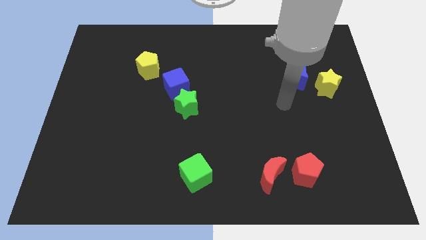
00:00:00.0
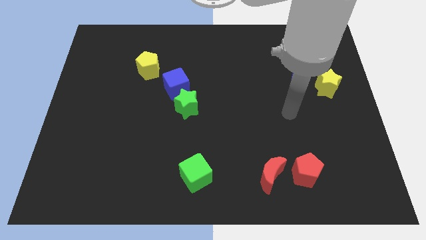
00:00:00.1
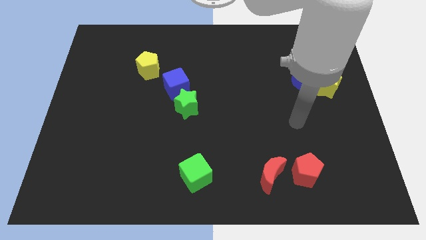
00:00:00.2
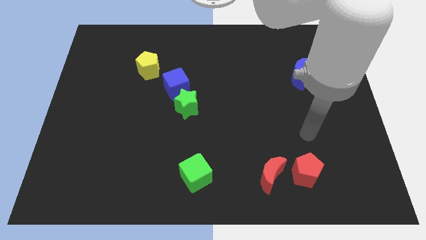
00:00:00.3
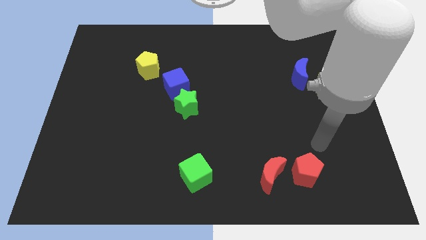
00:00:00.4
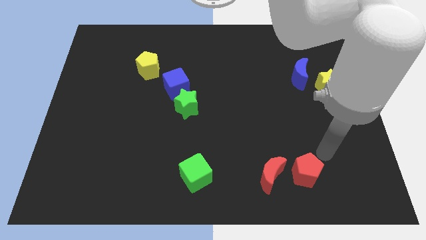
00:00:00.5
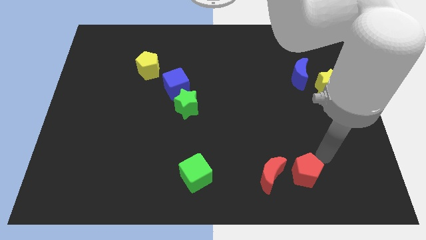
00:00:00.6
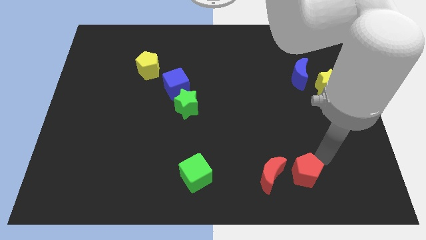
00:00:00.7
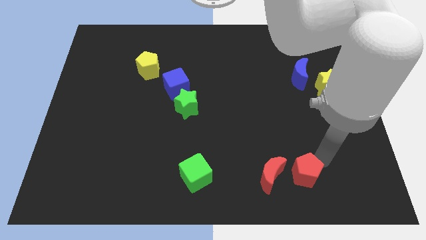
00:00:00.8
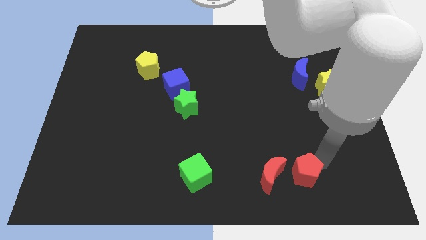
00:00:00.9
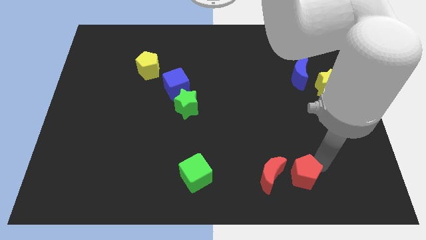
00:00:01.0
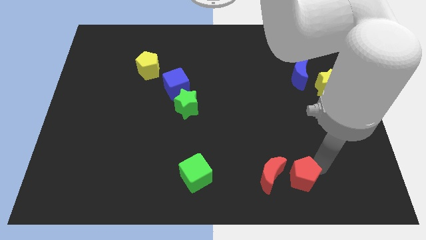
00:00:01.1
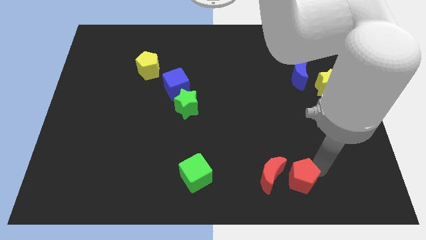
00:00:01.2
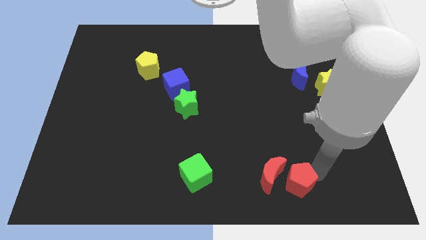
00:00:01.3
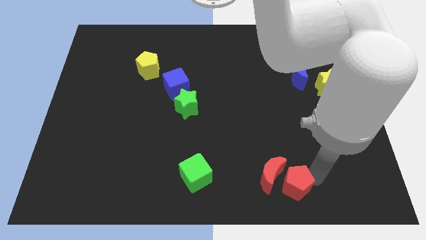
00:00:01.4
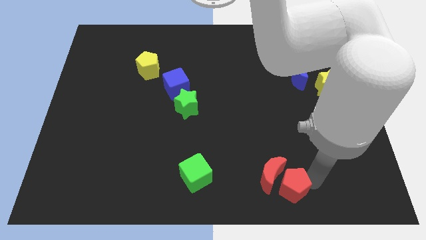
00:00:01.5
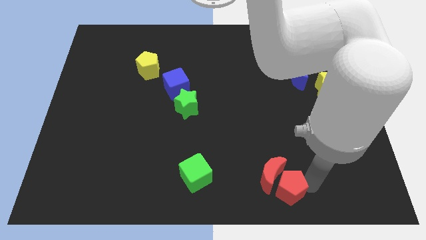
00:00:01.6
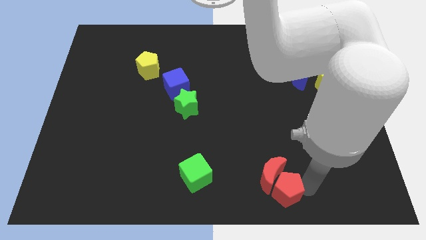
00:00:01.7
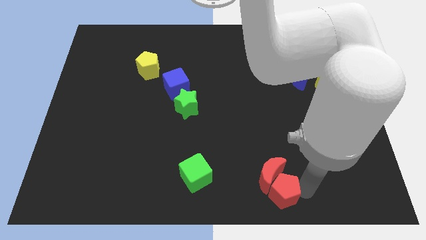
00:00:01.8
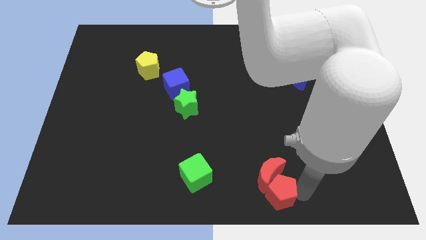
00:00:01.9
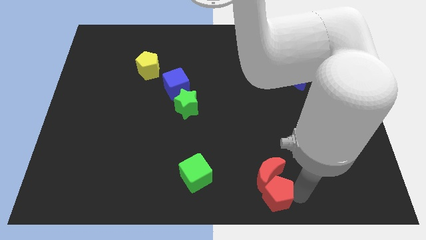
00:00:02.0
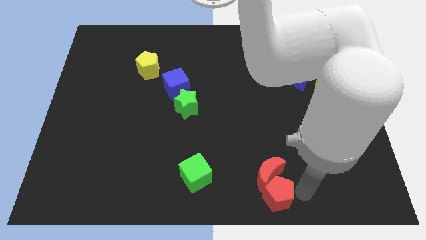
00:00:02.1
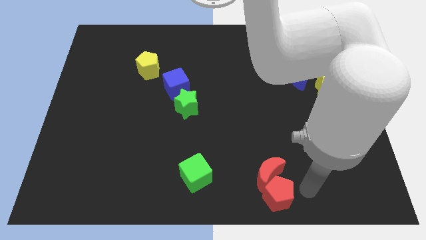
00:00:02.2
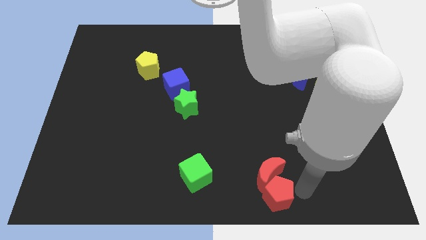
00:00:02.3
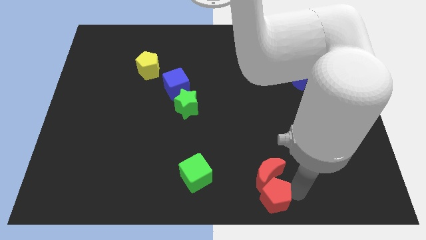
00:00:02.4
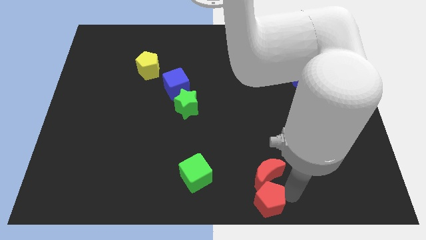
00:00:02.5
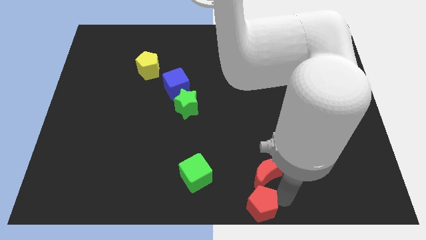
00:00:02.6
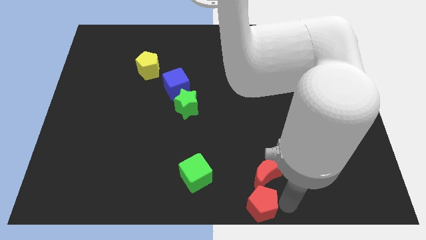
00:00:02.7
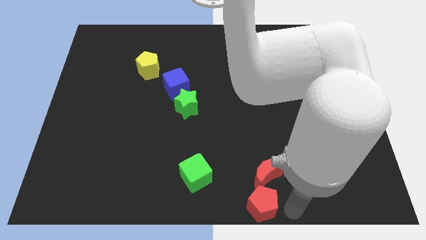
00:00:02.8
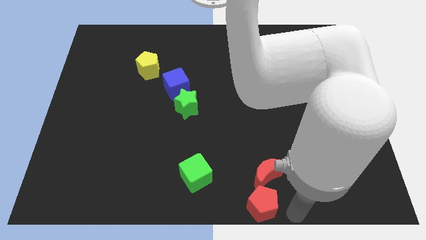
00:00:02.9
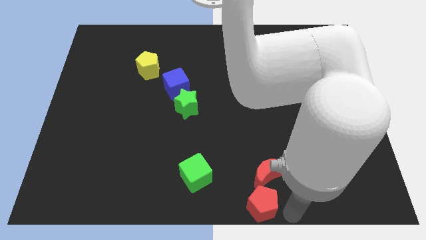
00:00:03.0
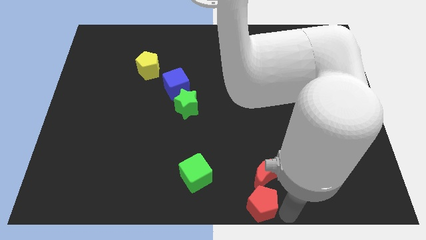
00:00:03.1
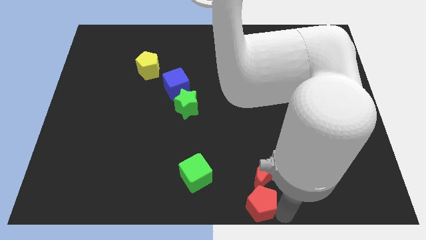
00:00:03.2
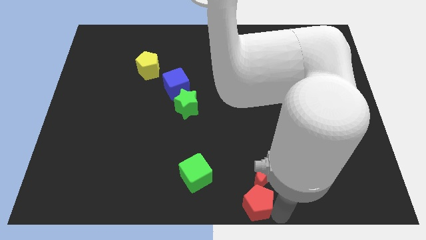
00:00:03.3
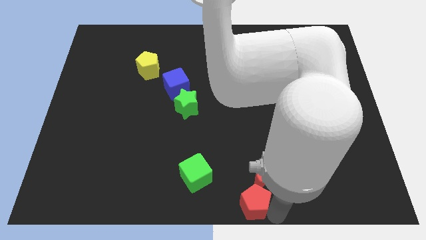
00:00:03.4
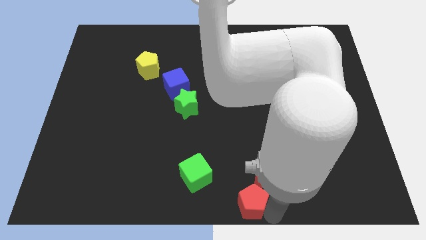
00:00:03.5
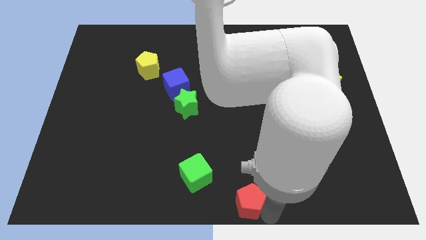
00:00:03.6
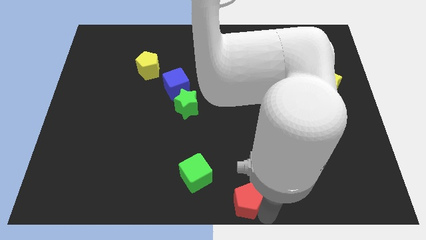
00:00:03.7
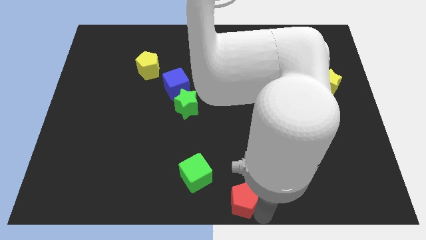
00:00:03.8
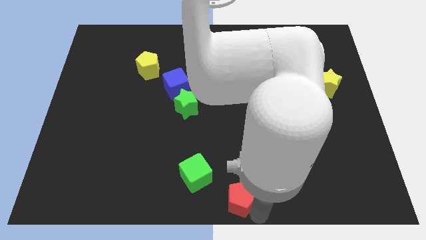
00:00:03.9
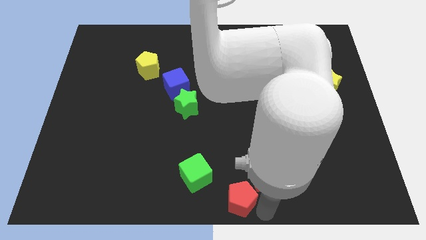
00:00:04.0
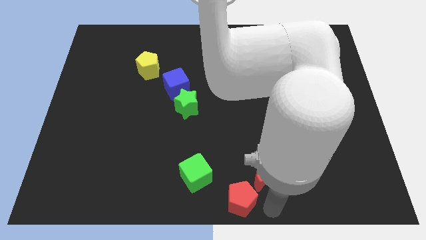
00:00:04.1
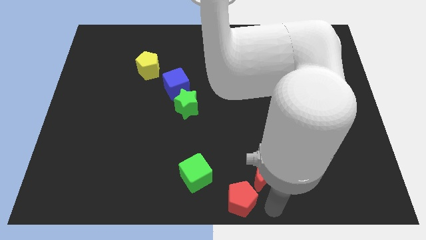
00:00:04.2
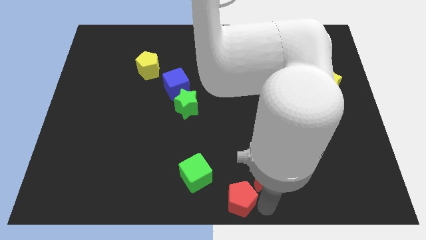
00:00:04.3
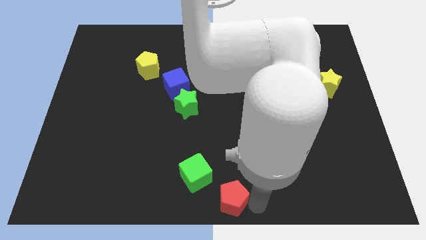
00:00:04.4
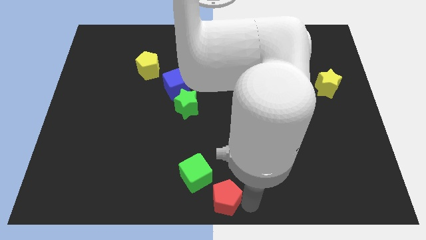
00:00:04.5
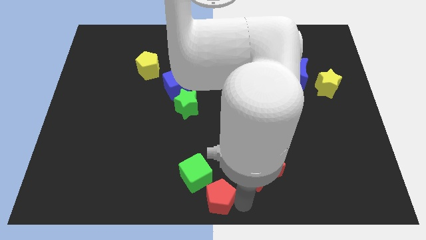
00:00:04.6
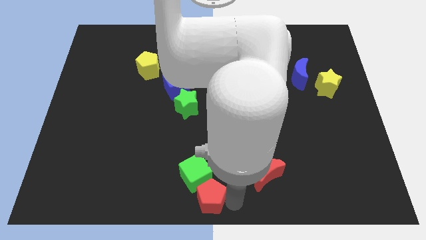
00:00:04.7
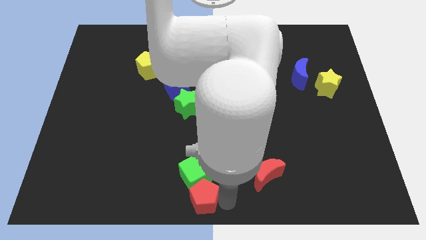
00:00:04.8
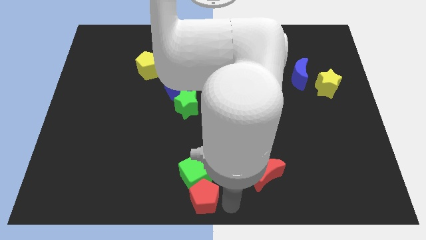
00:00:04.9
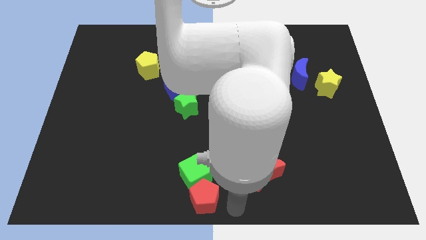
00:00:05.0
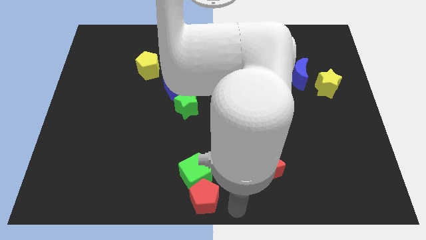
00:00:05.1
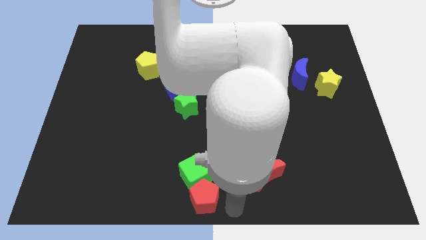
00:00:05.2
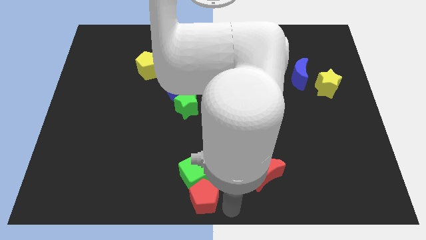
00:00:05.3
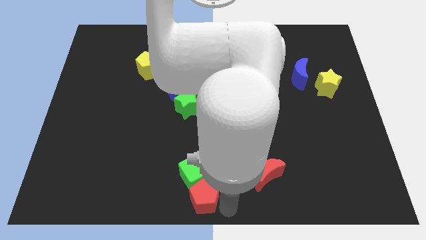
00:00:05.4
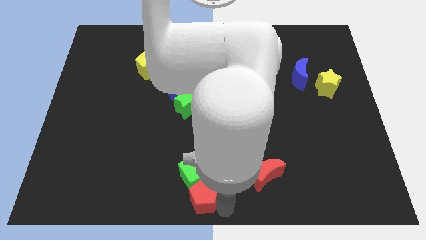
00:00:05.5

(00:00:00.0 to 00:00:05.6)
push the red pentagon to the left

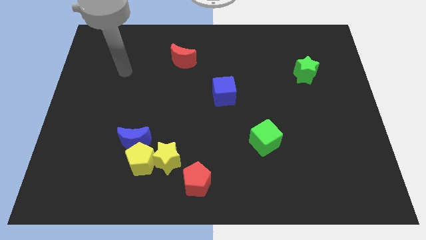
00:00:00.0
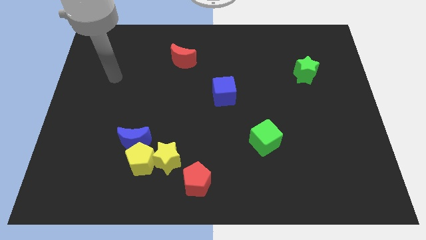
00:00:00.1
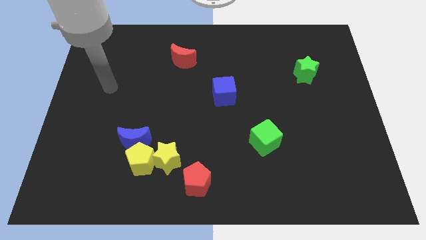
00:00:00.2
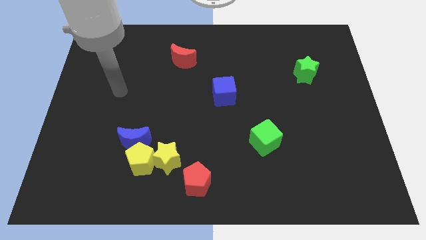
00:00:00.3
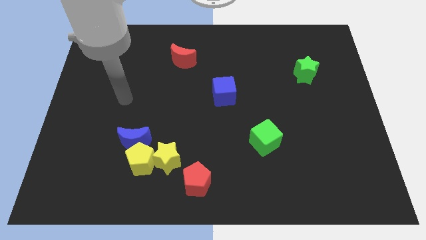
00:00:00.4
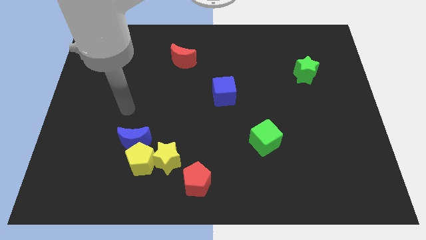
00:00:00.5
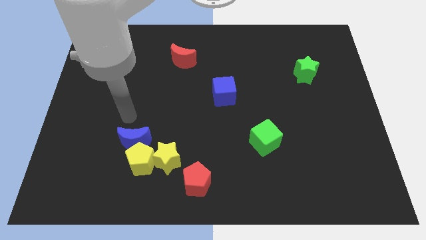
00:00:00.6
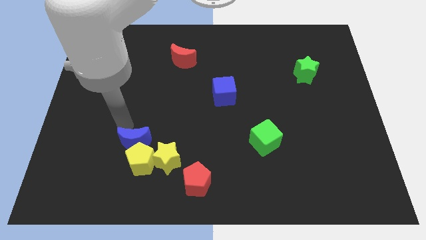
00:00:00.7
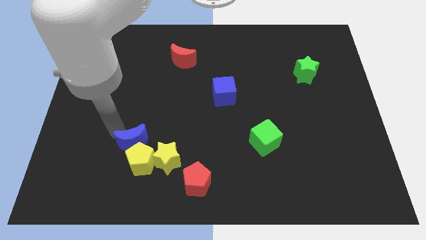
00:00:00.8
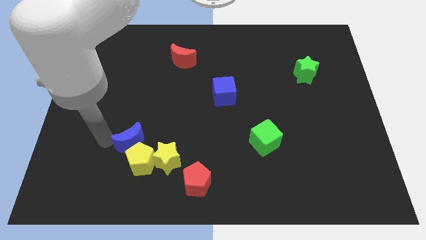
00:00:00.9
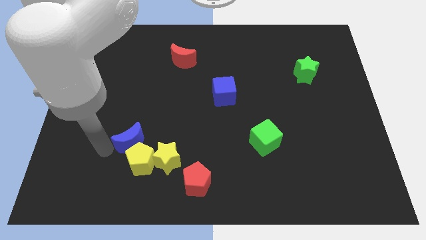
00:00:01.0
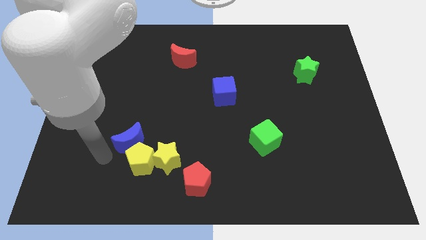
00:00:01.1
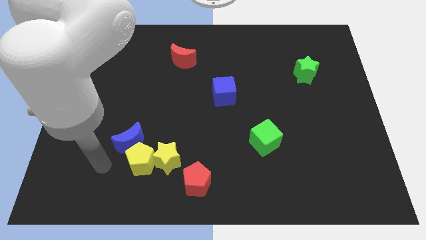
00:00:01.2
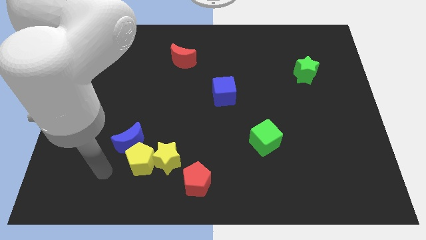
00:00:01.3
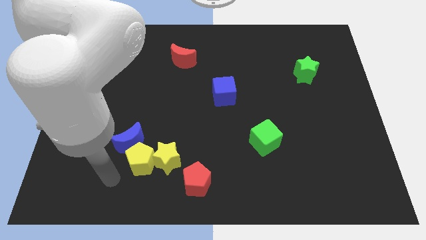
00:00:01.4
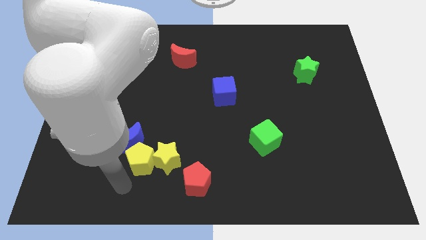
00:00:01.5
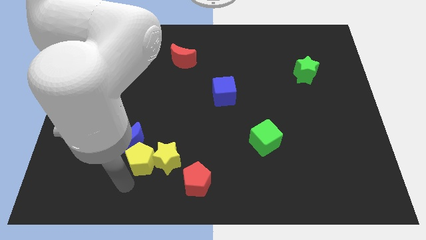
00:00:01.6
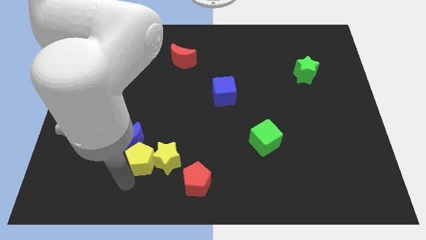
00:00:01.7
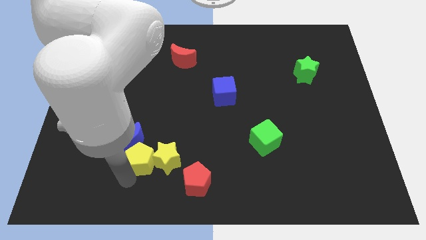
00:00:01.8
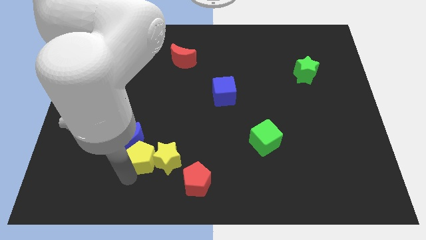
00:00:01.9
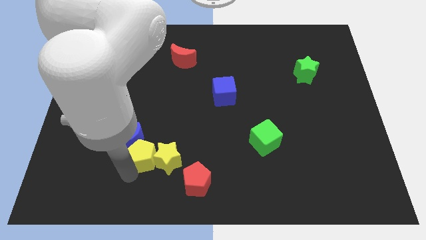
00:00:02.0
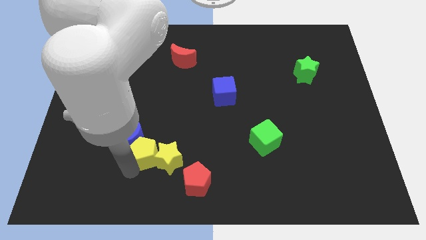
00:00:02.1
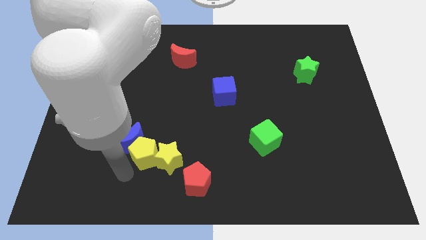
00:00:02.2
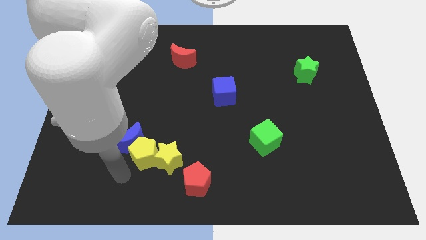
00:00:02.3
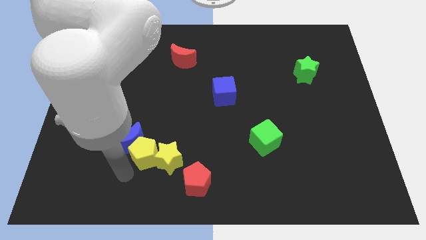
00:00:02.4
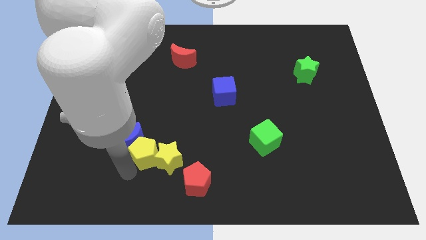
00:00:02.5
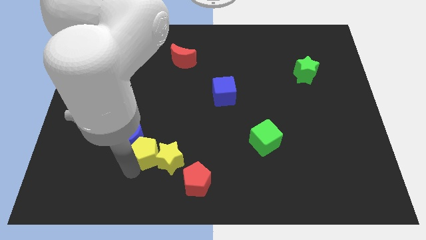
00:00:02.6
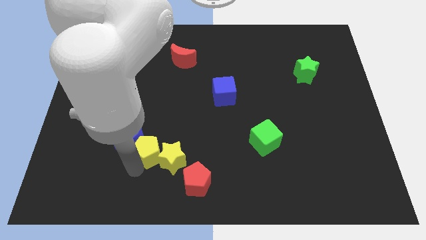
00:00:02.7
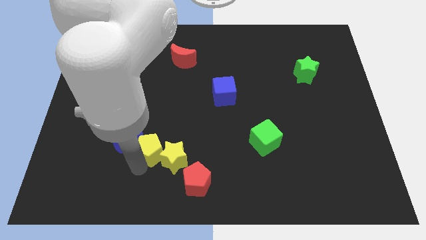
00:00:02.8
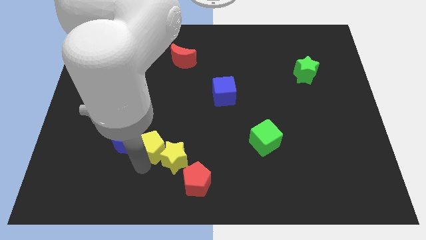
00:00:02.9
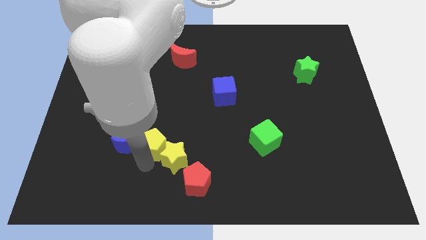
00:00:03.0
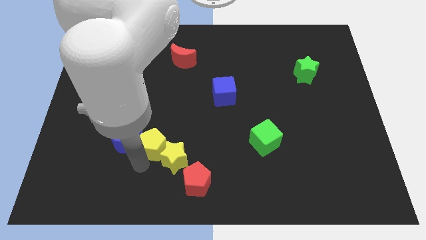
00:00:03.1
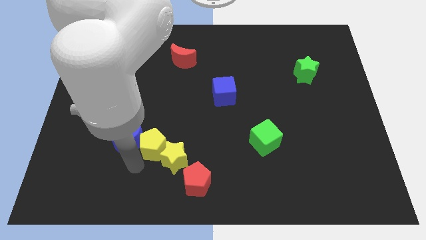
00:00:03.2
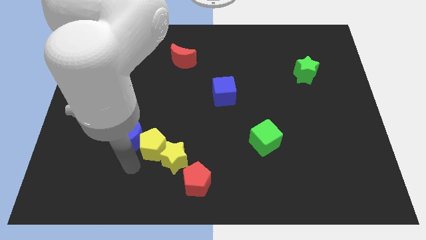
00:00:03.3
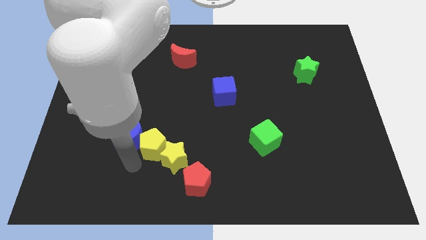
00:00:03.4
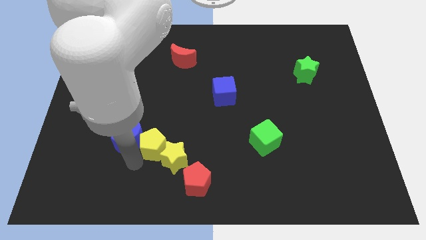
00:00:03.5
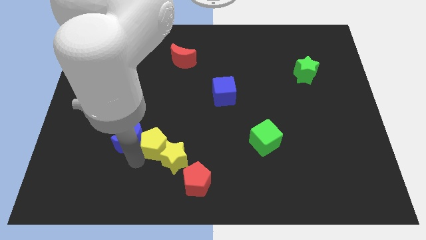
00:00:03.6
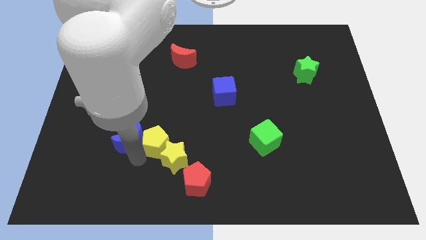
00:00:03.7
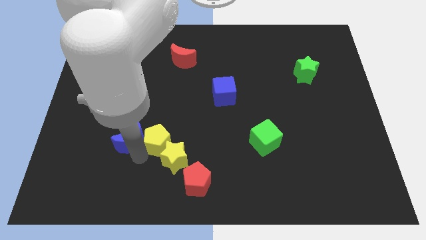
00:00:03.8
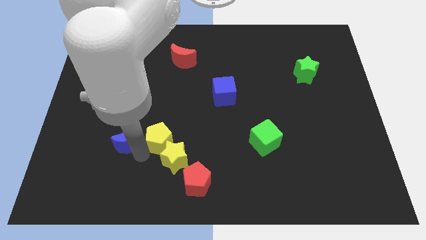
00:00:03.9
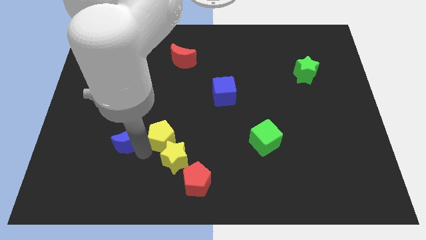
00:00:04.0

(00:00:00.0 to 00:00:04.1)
move the yellow pentagon somewhat upwards and right
